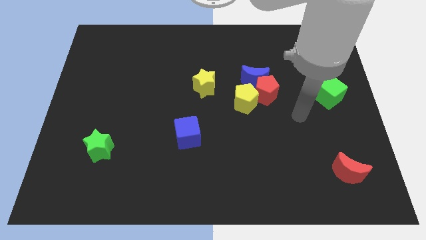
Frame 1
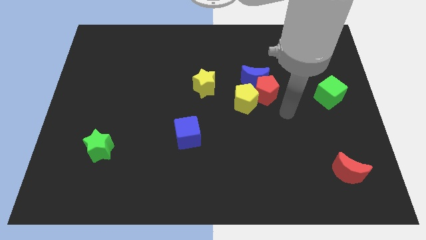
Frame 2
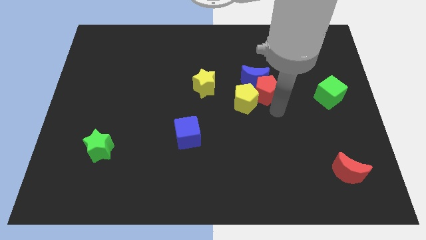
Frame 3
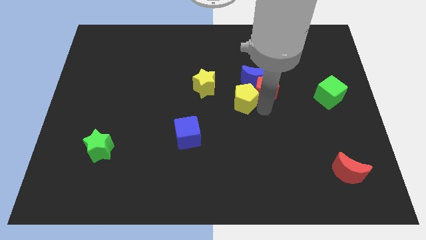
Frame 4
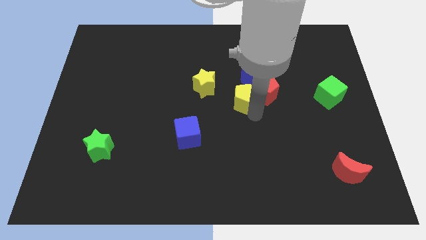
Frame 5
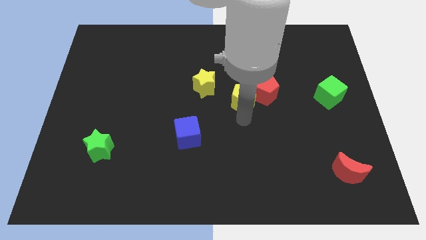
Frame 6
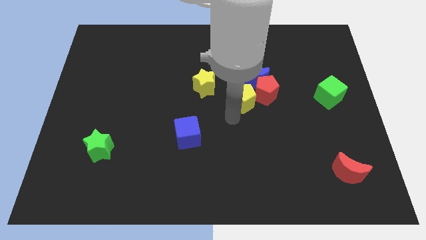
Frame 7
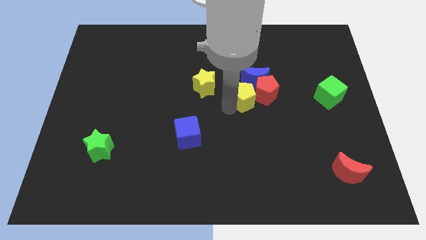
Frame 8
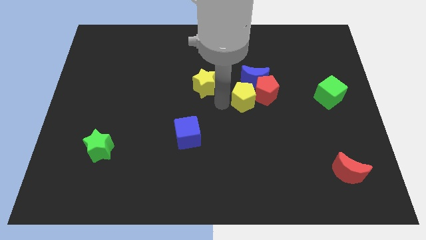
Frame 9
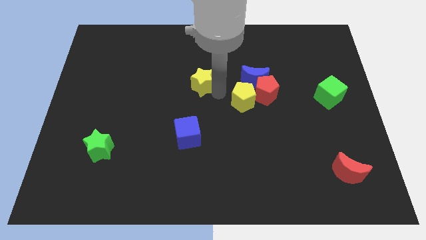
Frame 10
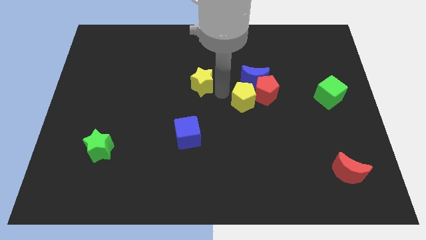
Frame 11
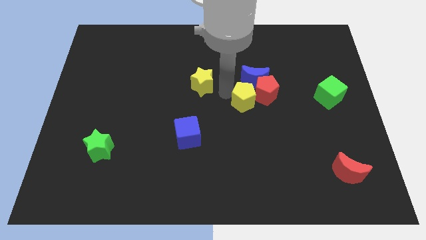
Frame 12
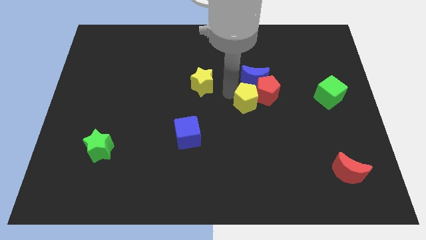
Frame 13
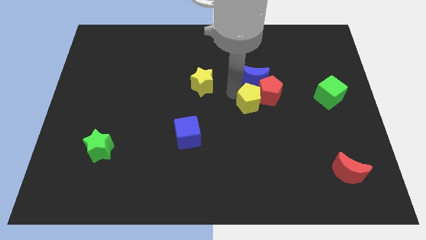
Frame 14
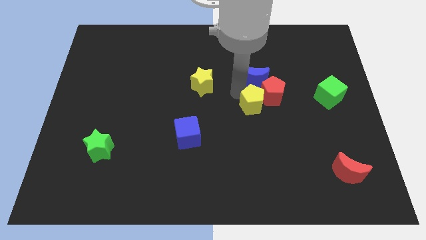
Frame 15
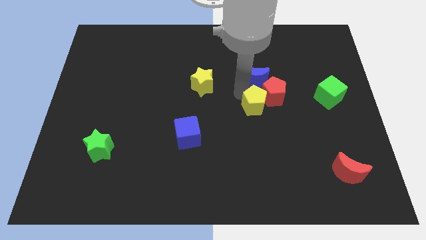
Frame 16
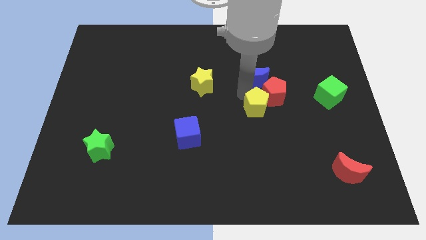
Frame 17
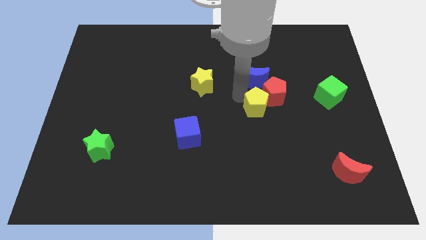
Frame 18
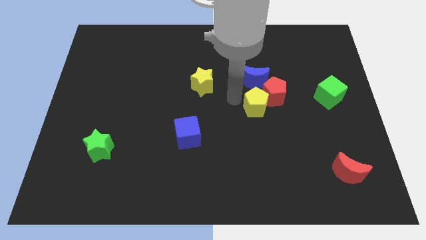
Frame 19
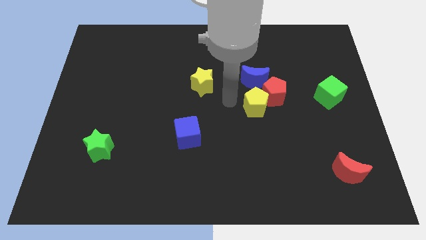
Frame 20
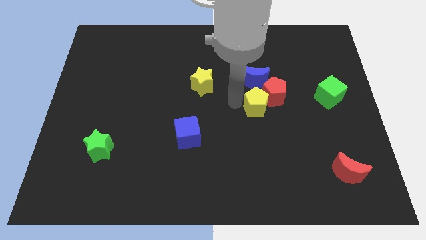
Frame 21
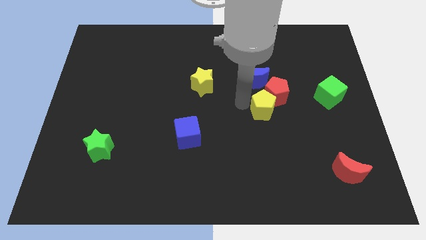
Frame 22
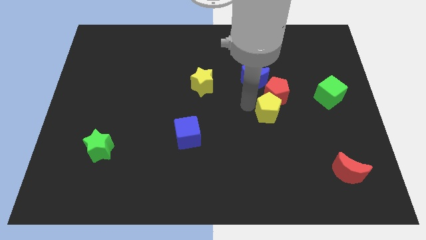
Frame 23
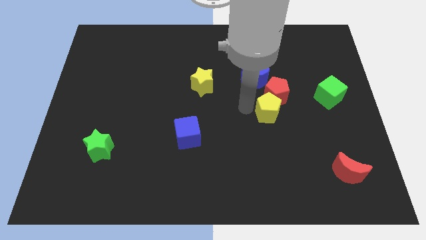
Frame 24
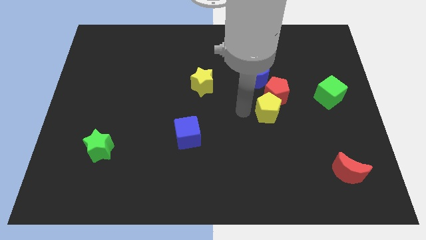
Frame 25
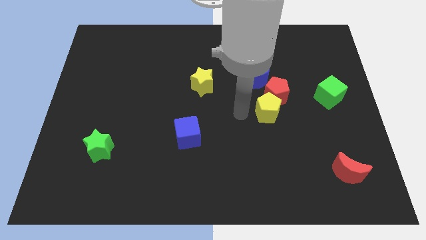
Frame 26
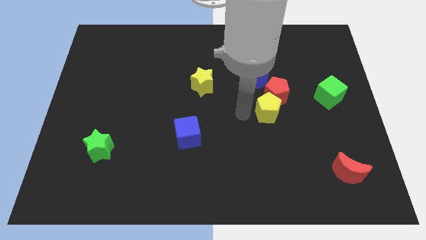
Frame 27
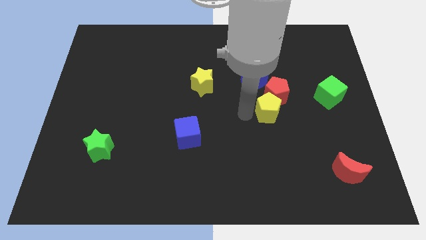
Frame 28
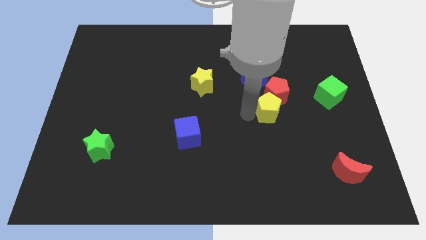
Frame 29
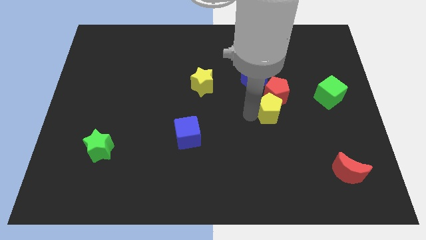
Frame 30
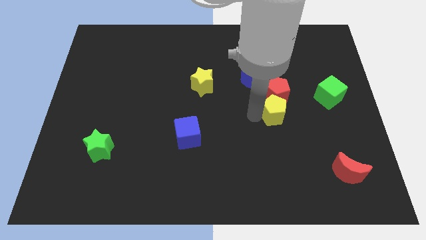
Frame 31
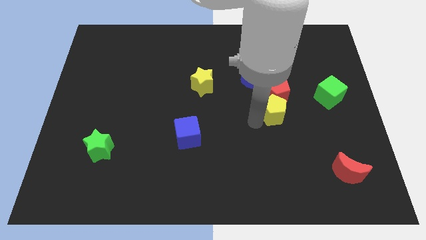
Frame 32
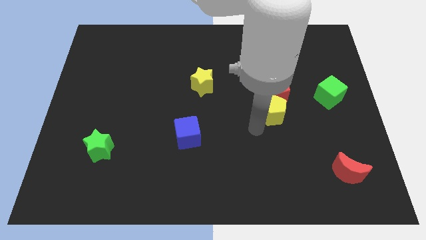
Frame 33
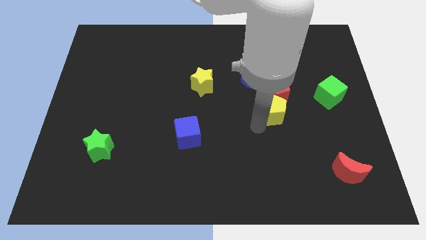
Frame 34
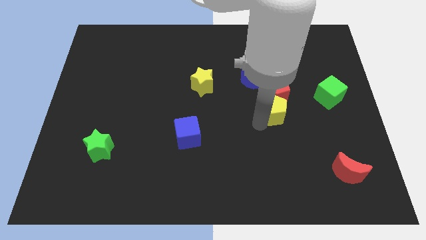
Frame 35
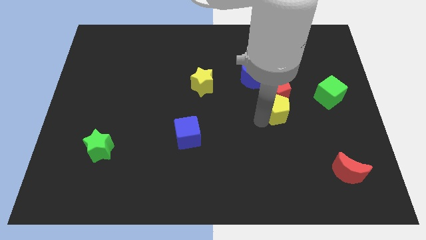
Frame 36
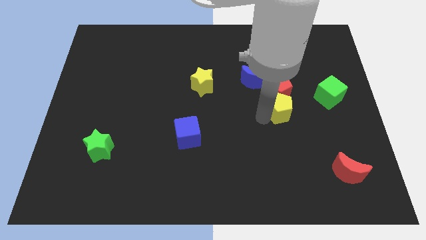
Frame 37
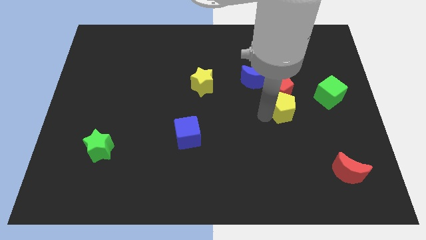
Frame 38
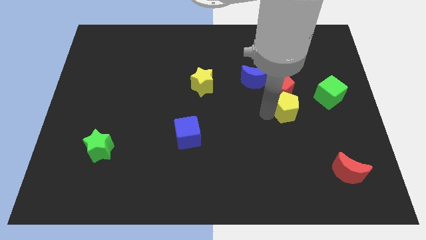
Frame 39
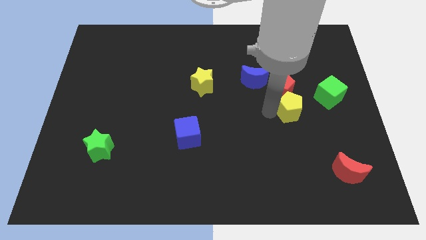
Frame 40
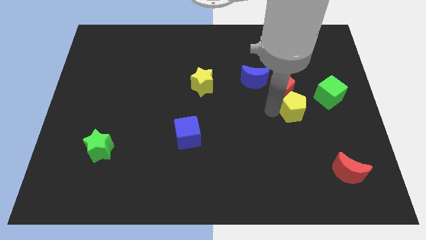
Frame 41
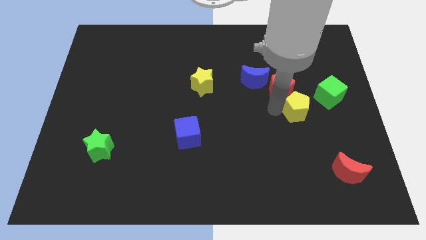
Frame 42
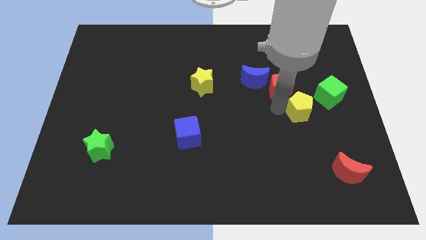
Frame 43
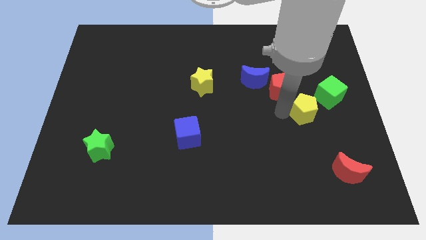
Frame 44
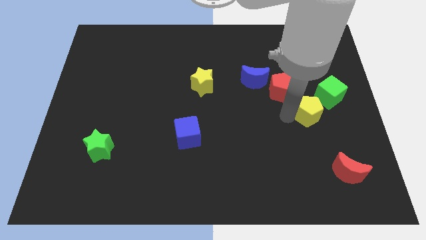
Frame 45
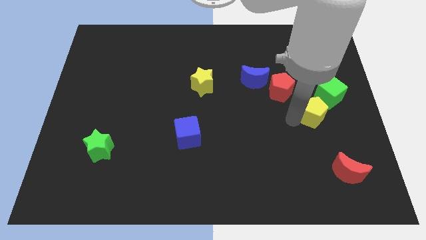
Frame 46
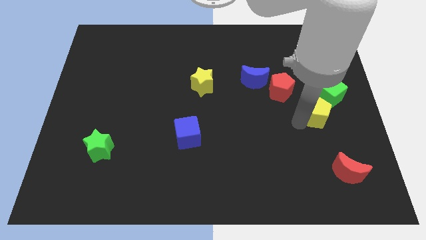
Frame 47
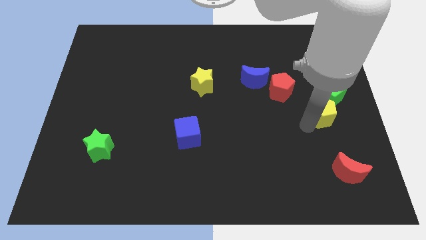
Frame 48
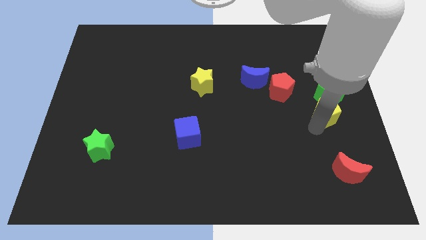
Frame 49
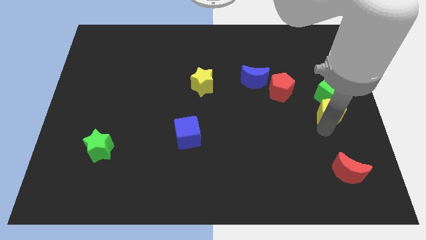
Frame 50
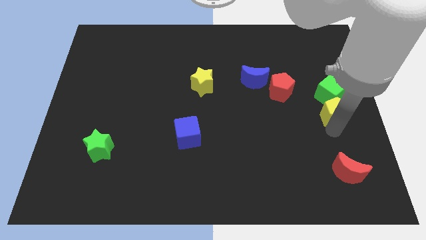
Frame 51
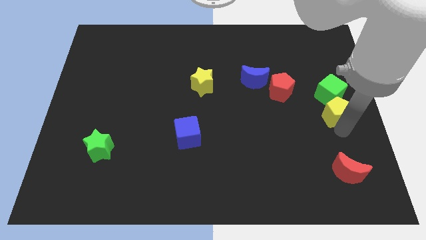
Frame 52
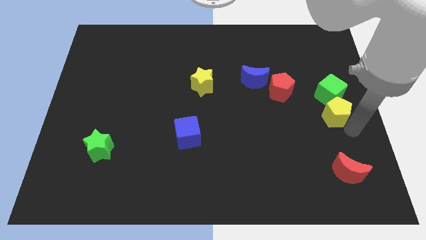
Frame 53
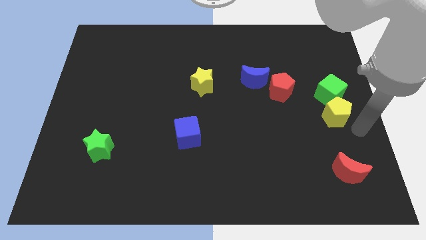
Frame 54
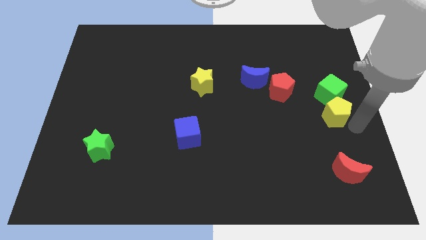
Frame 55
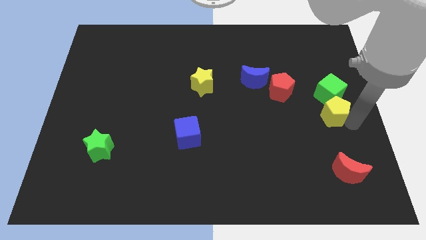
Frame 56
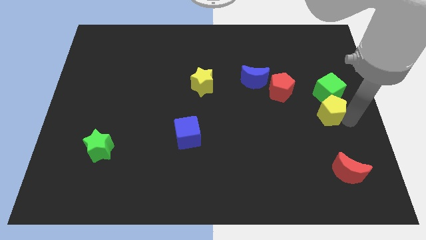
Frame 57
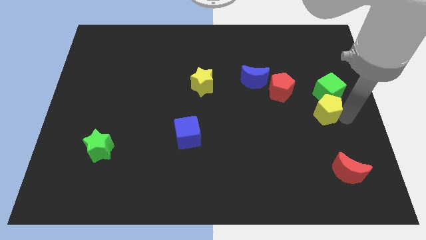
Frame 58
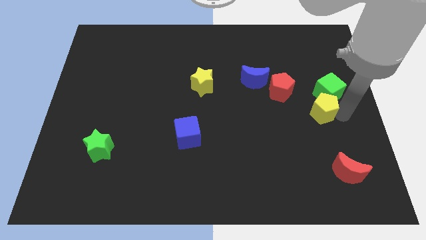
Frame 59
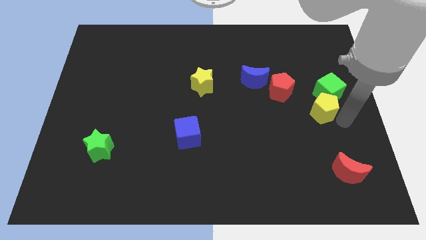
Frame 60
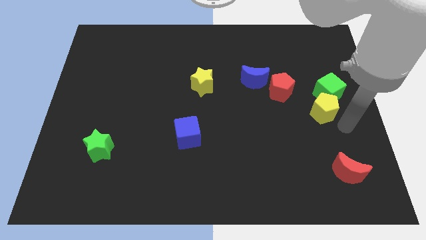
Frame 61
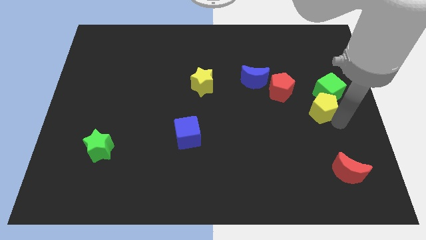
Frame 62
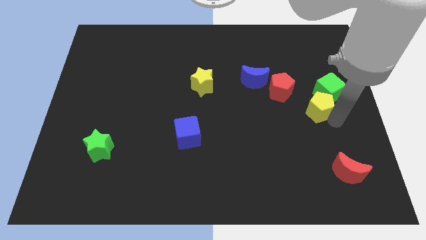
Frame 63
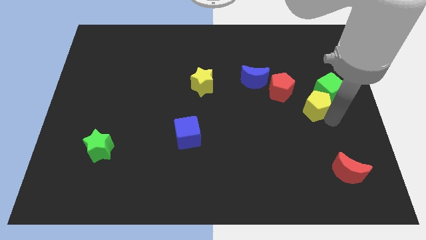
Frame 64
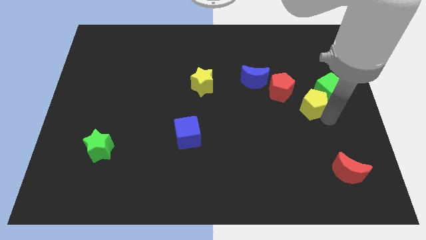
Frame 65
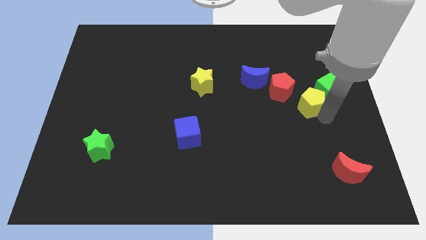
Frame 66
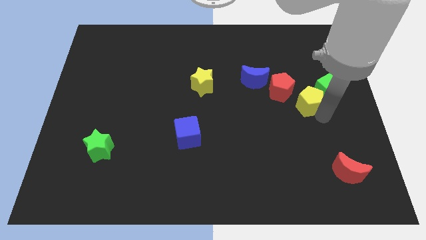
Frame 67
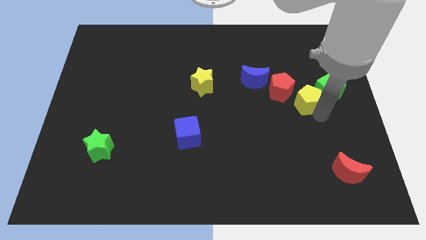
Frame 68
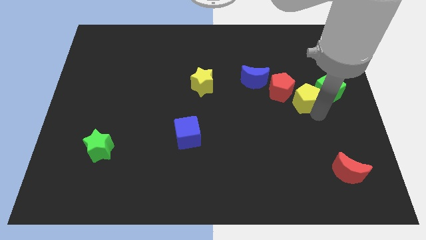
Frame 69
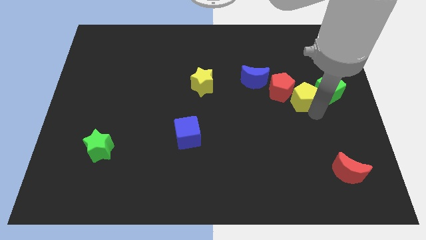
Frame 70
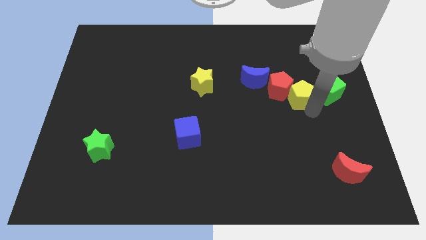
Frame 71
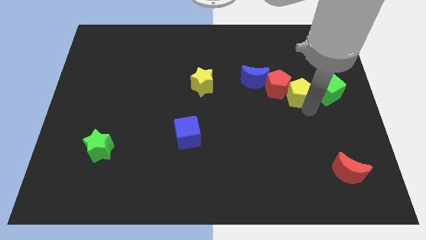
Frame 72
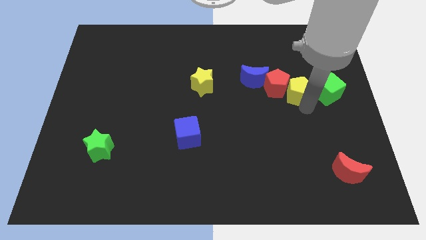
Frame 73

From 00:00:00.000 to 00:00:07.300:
put the yellow pentagon diagonally up and to the right of the red pentagon
